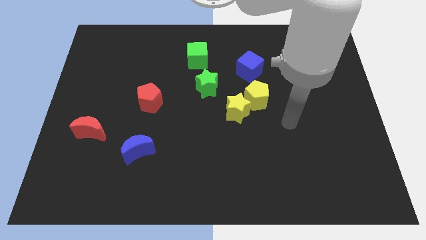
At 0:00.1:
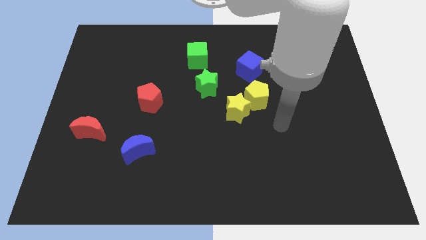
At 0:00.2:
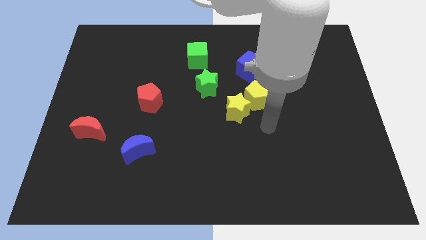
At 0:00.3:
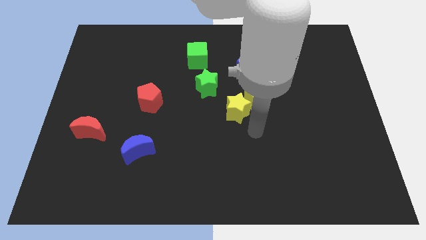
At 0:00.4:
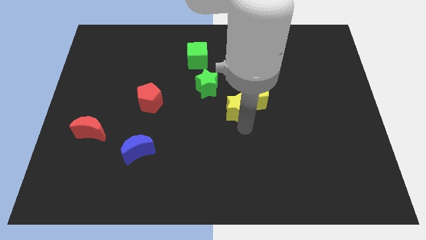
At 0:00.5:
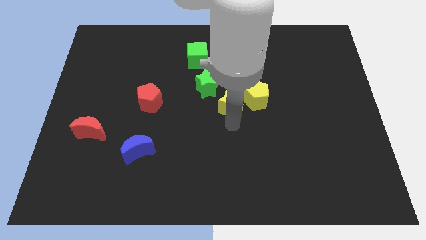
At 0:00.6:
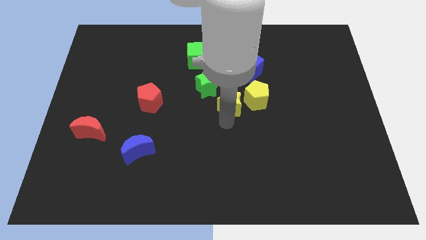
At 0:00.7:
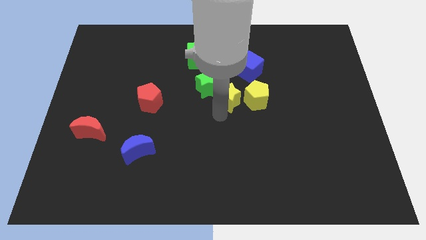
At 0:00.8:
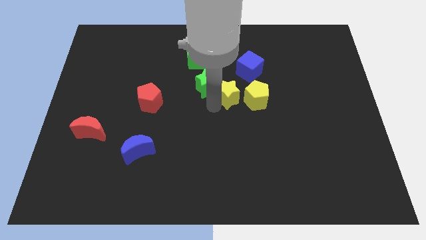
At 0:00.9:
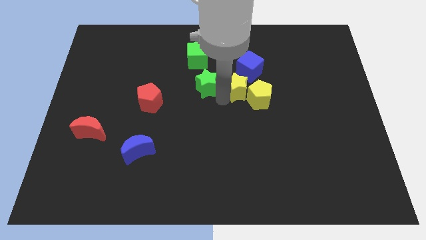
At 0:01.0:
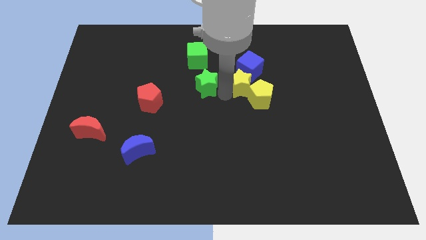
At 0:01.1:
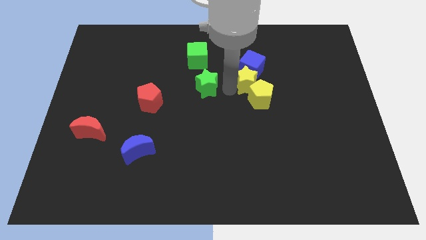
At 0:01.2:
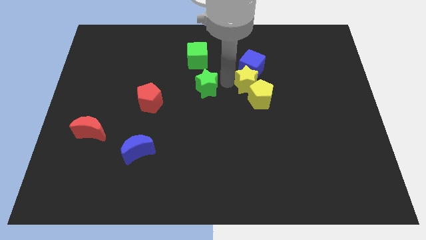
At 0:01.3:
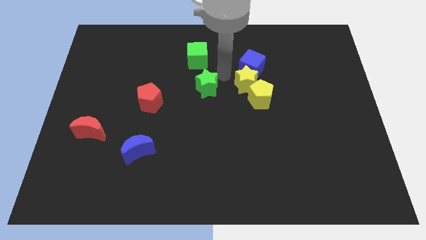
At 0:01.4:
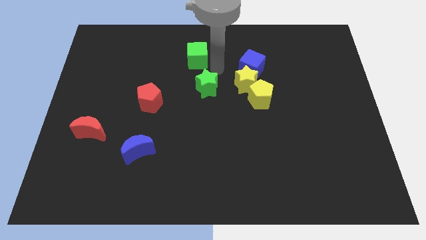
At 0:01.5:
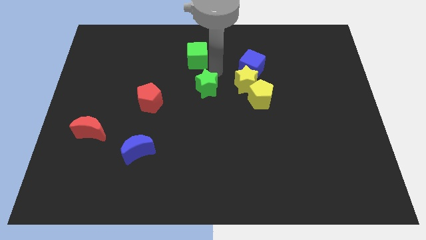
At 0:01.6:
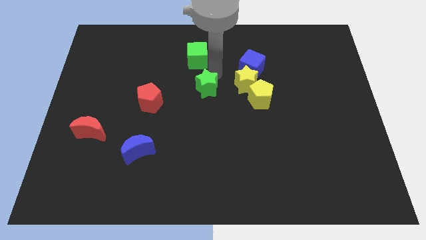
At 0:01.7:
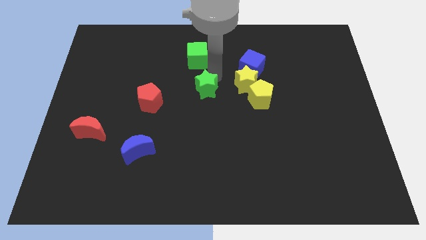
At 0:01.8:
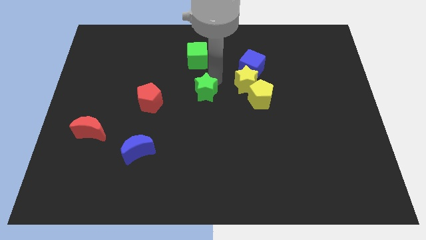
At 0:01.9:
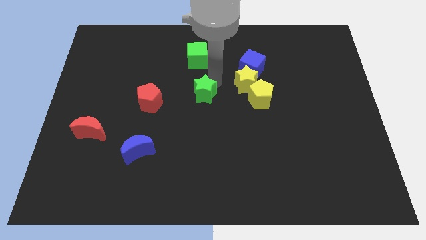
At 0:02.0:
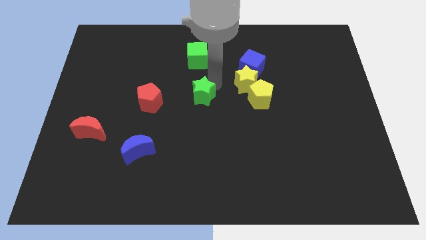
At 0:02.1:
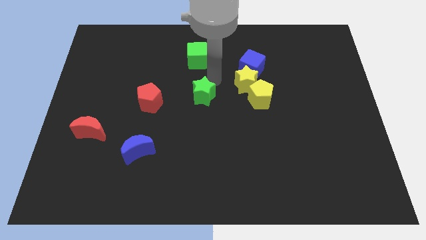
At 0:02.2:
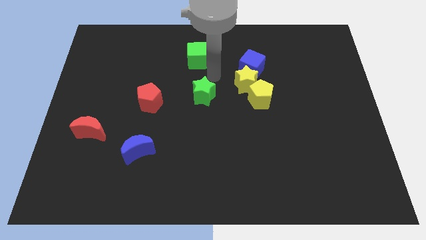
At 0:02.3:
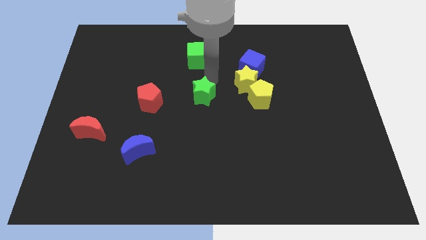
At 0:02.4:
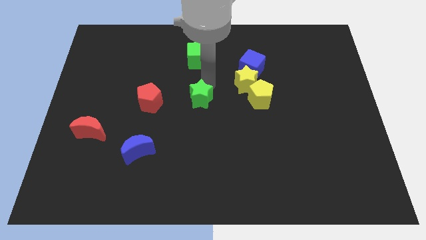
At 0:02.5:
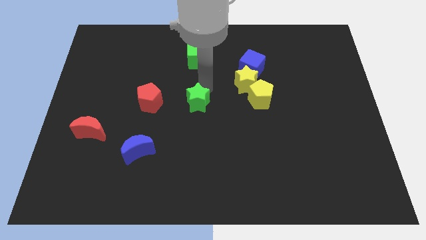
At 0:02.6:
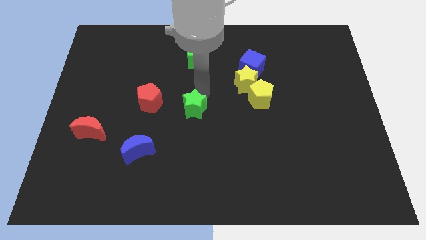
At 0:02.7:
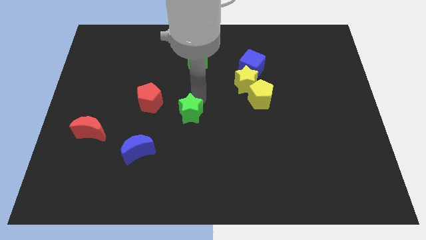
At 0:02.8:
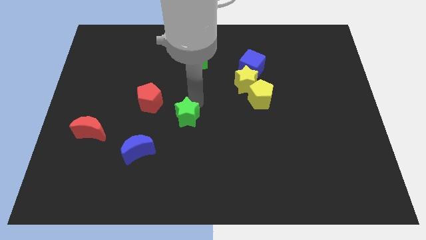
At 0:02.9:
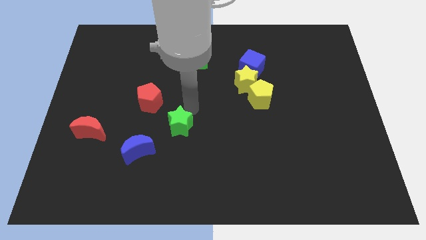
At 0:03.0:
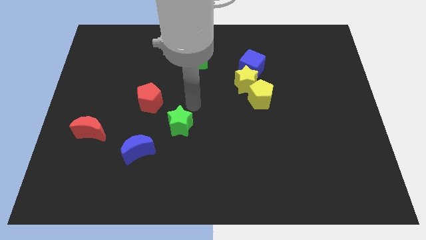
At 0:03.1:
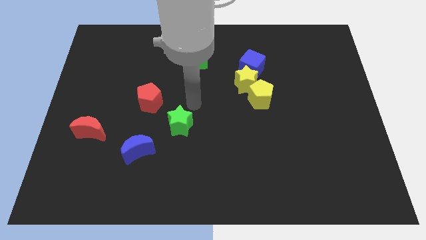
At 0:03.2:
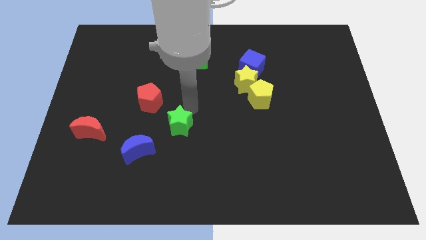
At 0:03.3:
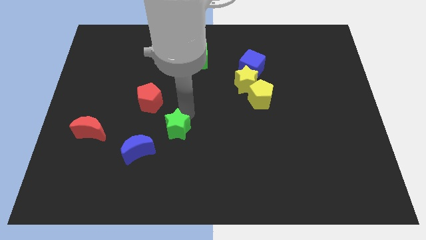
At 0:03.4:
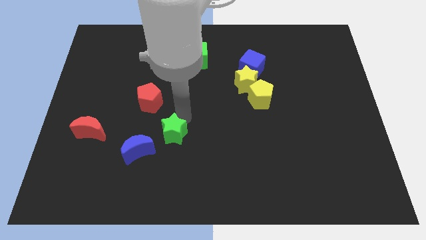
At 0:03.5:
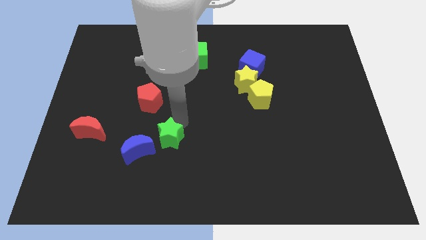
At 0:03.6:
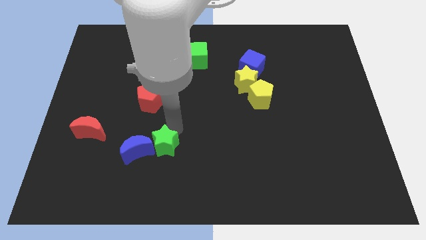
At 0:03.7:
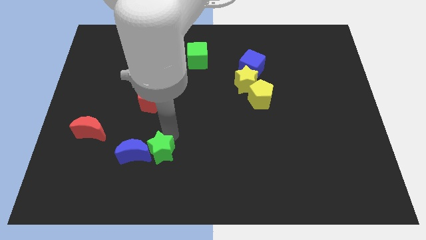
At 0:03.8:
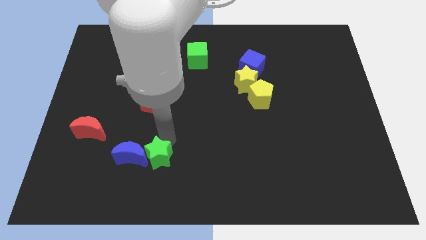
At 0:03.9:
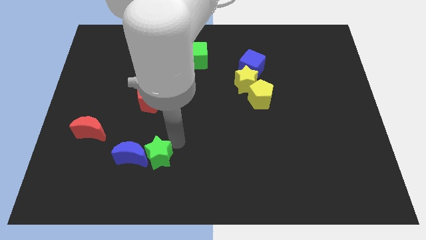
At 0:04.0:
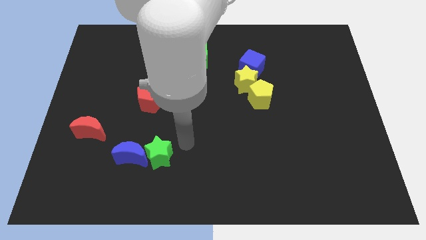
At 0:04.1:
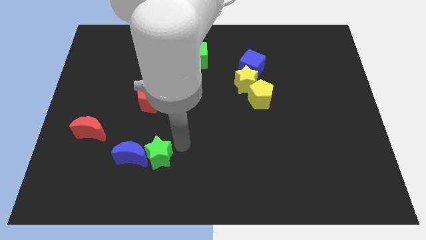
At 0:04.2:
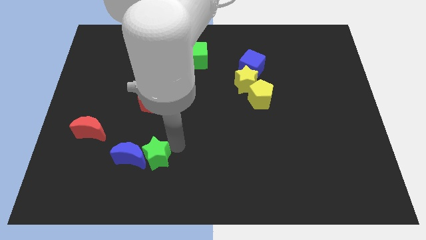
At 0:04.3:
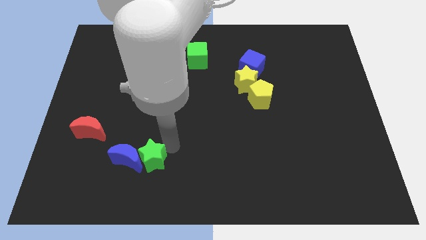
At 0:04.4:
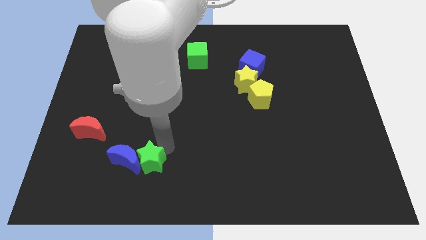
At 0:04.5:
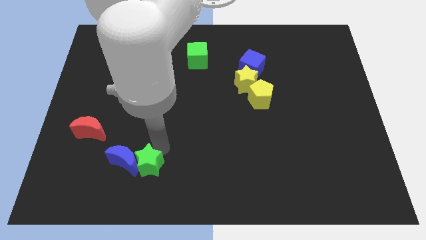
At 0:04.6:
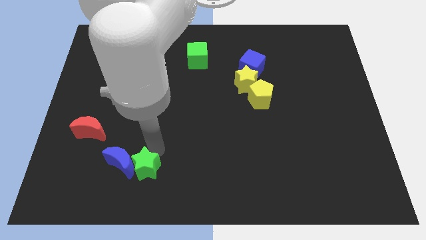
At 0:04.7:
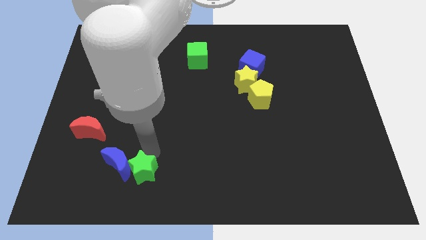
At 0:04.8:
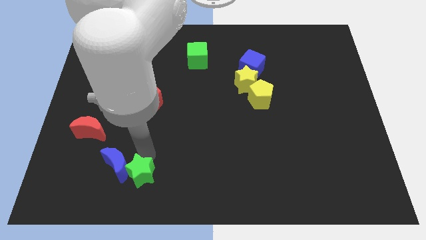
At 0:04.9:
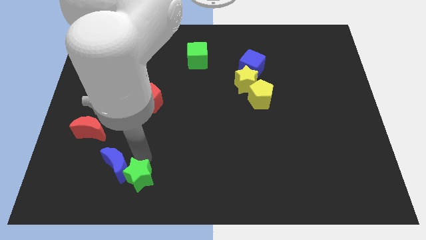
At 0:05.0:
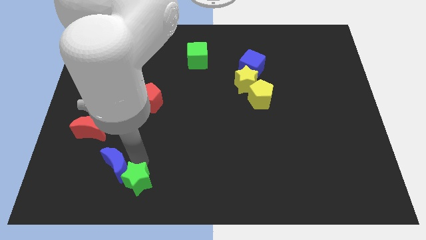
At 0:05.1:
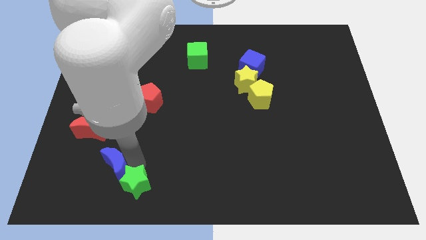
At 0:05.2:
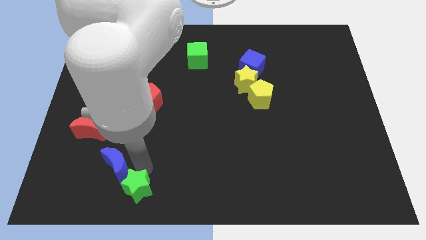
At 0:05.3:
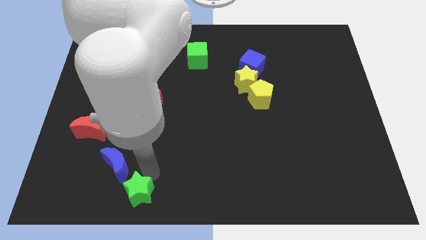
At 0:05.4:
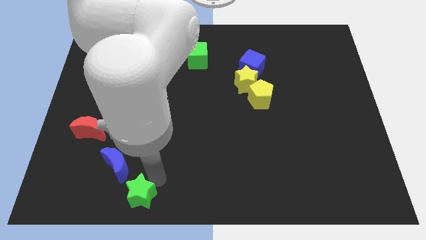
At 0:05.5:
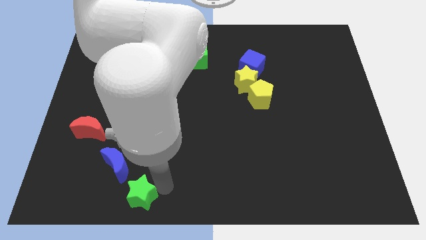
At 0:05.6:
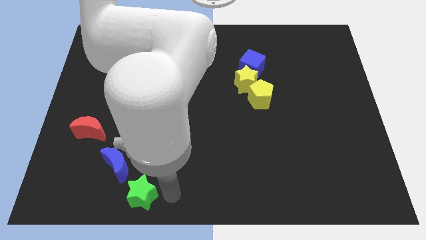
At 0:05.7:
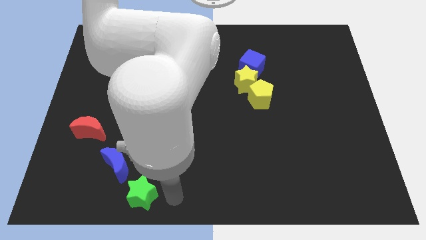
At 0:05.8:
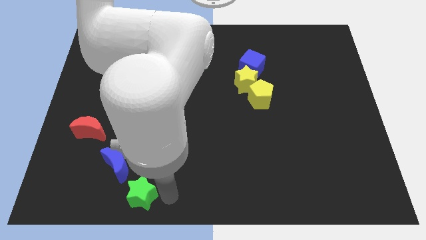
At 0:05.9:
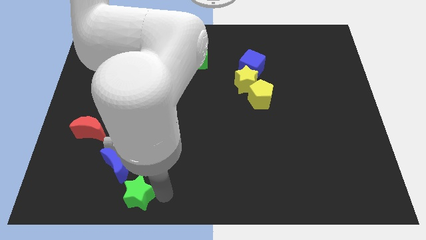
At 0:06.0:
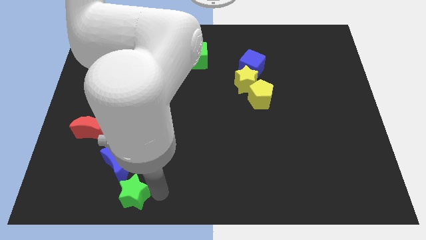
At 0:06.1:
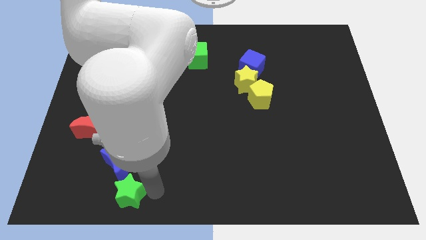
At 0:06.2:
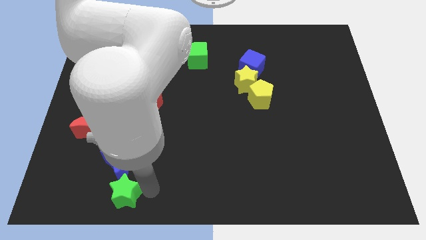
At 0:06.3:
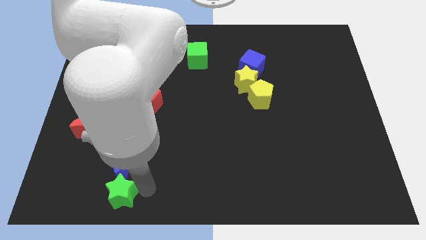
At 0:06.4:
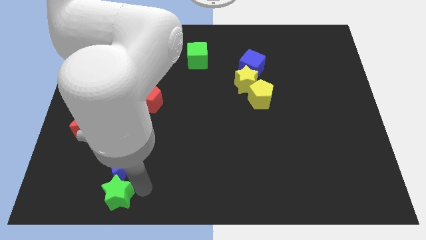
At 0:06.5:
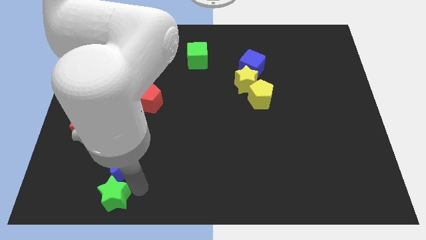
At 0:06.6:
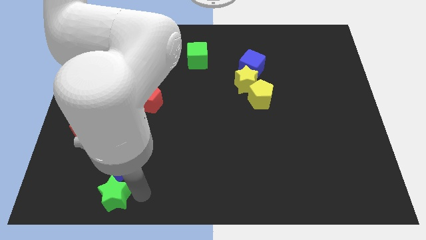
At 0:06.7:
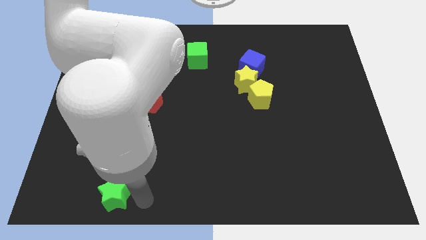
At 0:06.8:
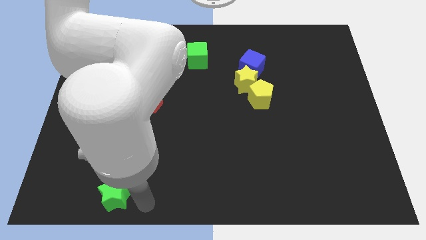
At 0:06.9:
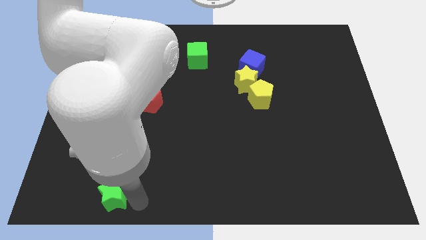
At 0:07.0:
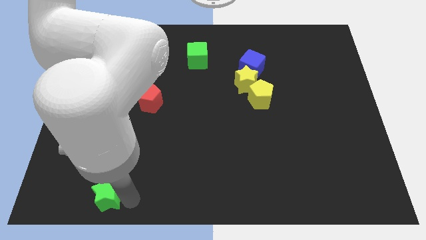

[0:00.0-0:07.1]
put the green star to the bottom left side of the blue moon
